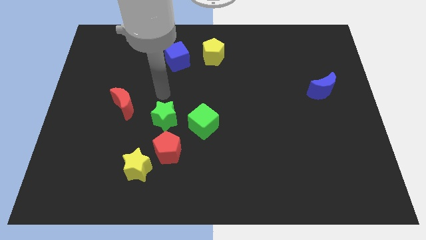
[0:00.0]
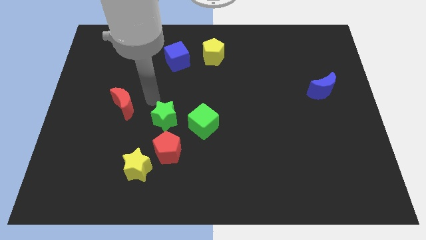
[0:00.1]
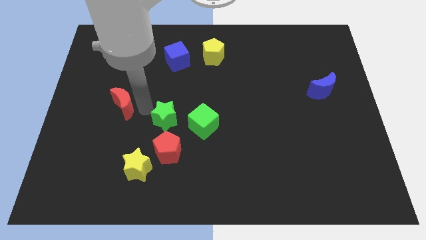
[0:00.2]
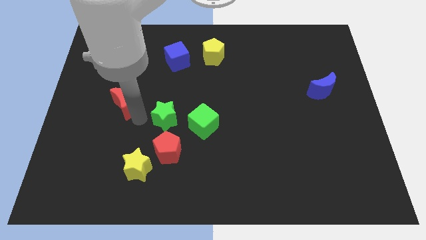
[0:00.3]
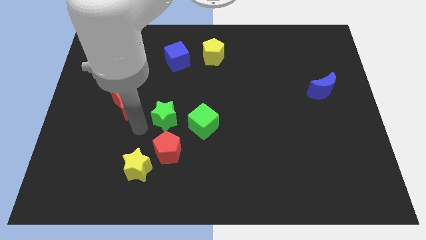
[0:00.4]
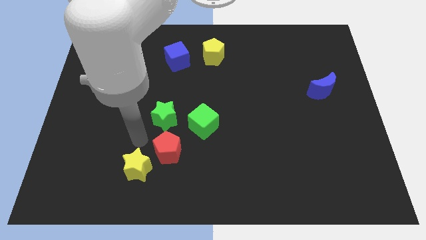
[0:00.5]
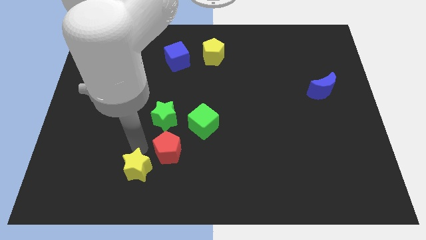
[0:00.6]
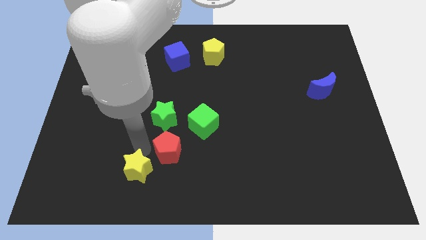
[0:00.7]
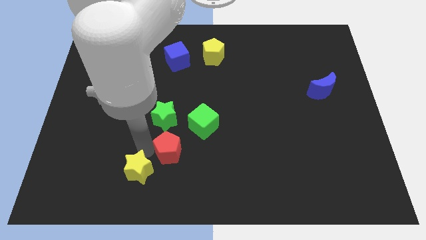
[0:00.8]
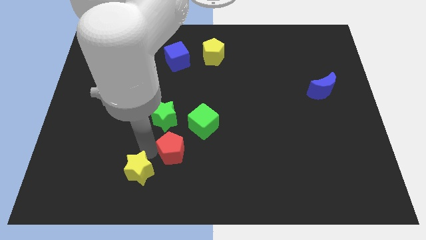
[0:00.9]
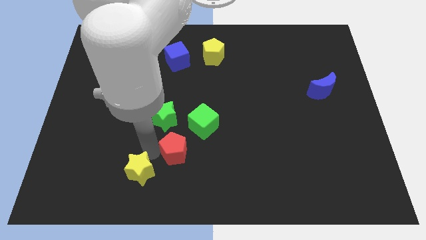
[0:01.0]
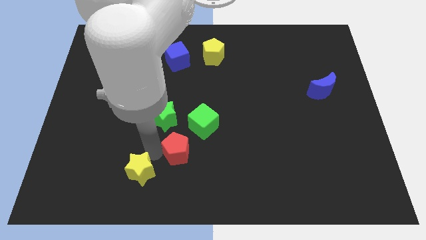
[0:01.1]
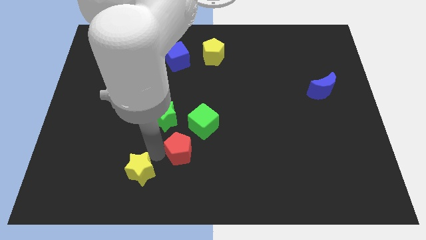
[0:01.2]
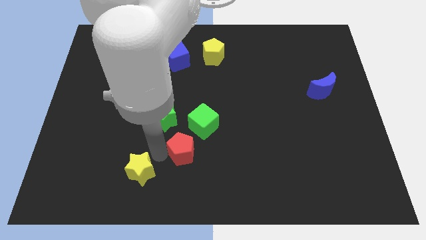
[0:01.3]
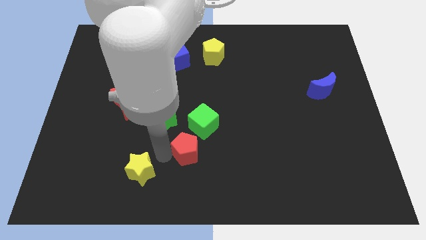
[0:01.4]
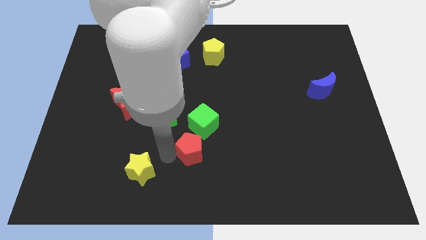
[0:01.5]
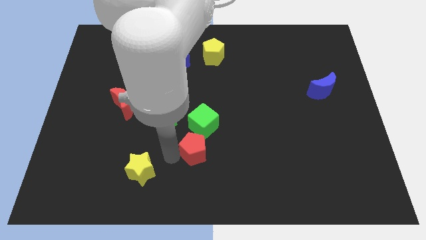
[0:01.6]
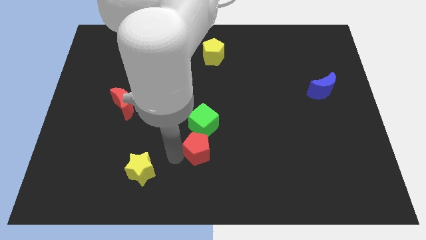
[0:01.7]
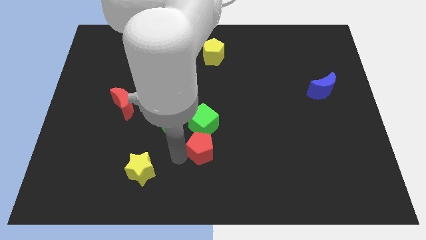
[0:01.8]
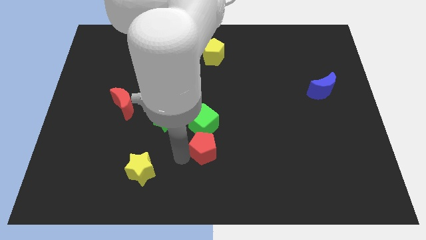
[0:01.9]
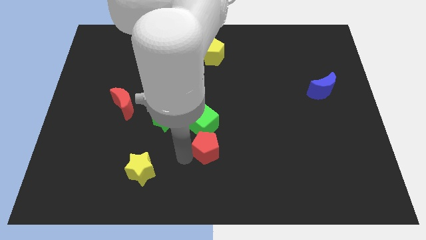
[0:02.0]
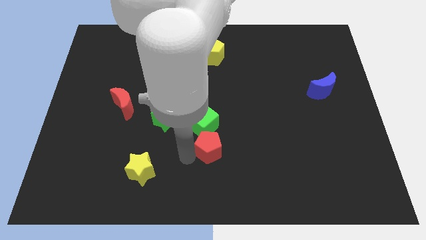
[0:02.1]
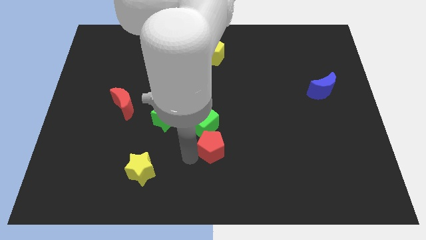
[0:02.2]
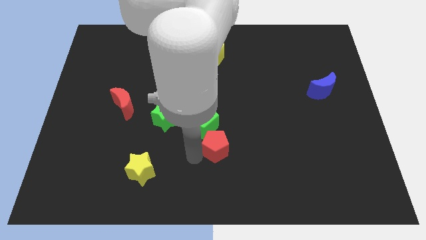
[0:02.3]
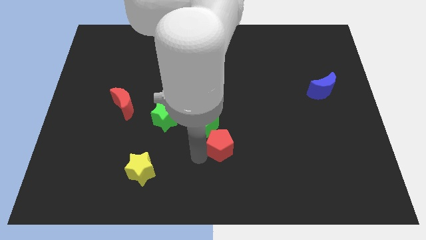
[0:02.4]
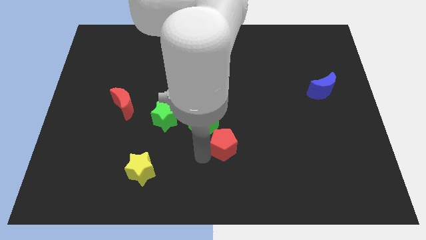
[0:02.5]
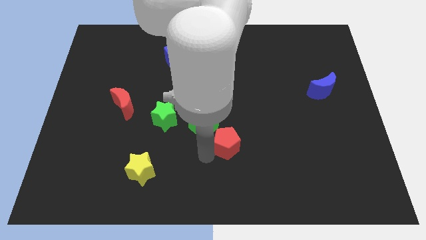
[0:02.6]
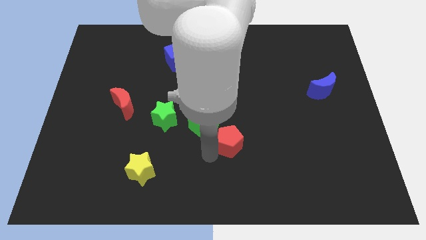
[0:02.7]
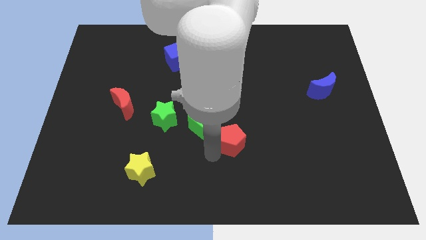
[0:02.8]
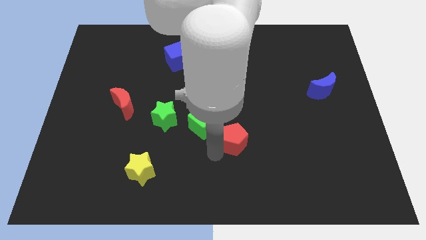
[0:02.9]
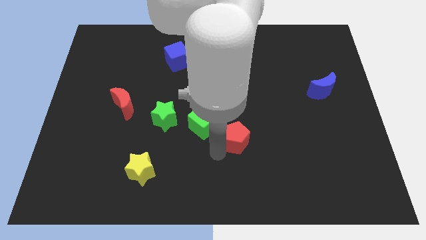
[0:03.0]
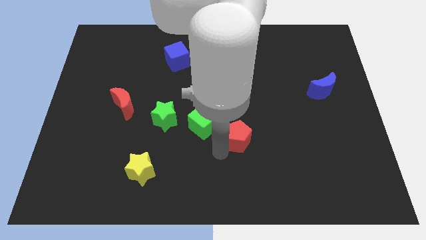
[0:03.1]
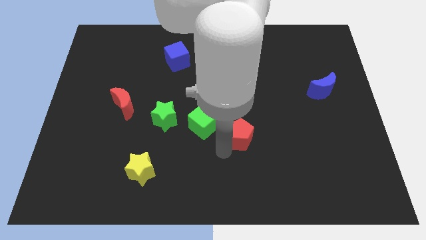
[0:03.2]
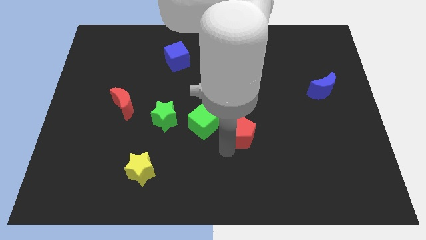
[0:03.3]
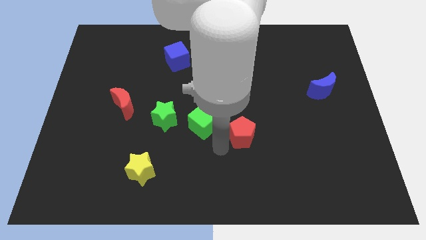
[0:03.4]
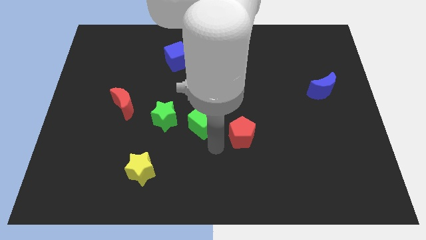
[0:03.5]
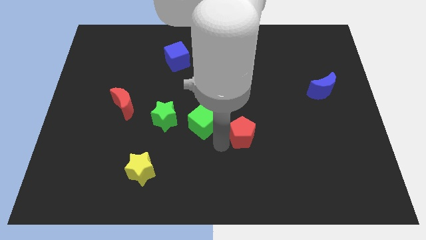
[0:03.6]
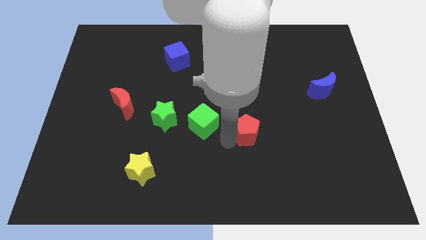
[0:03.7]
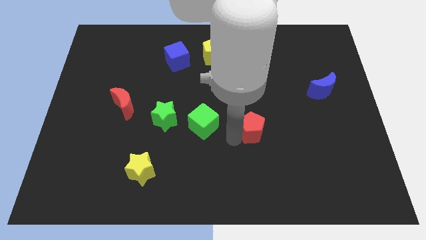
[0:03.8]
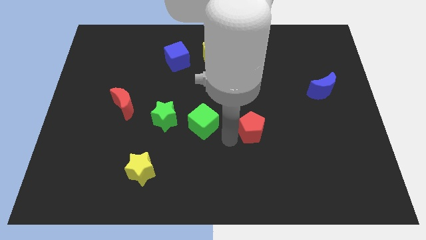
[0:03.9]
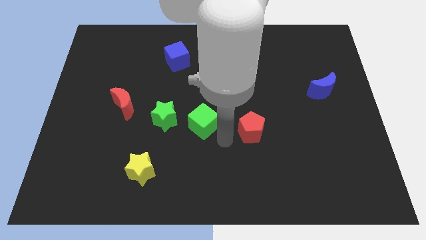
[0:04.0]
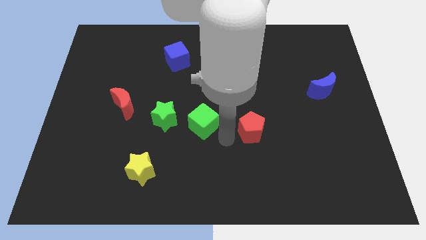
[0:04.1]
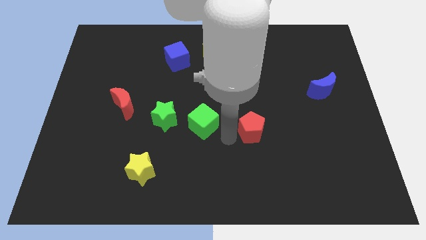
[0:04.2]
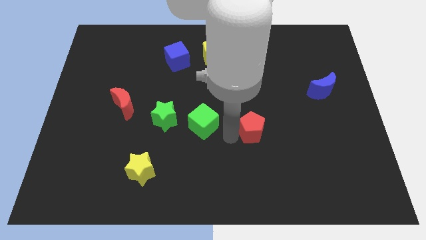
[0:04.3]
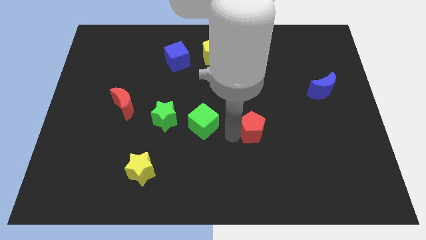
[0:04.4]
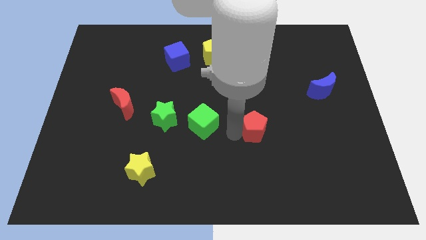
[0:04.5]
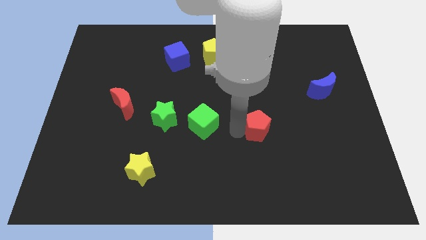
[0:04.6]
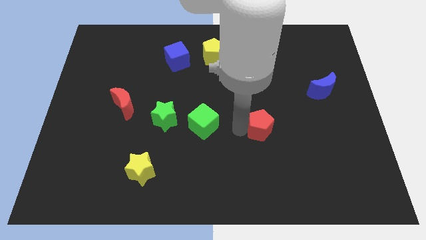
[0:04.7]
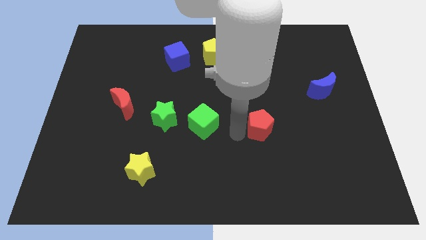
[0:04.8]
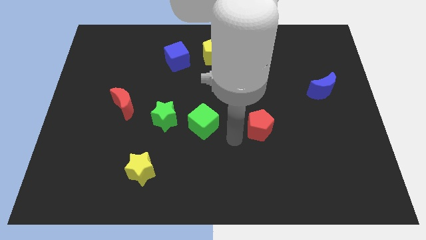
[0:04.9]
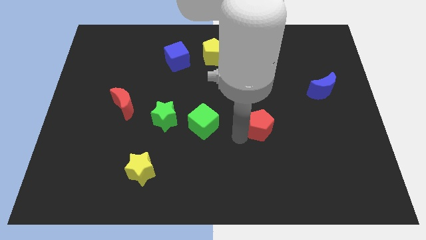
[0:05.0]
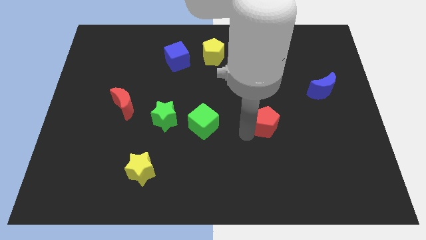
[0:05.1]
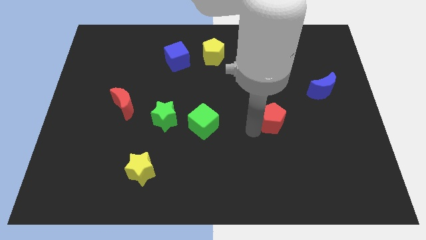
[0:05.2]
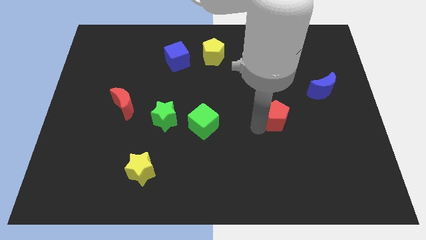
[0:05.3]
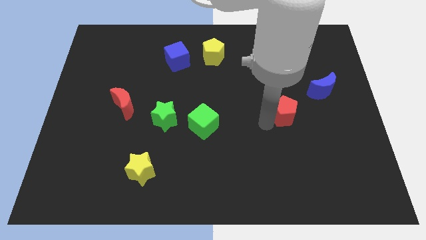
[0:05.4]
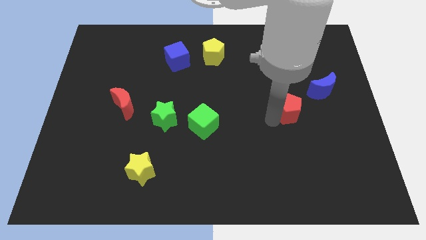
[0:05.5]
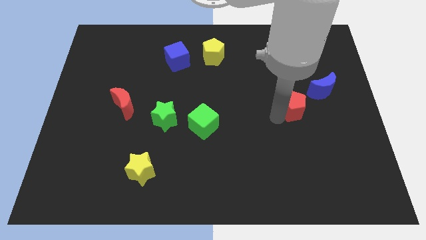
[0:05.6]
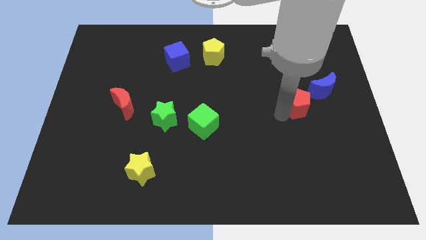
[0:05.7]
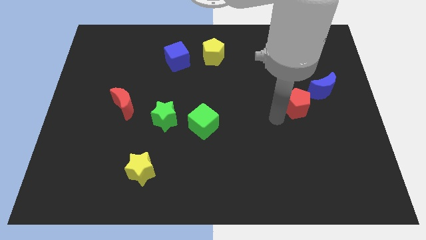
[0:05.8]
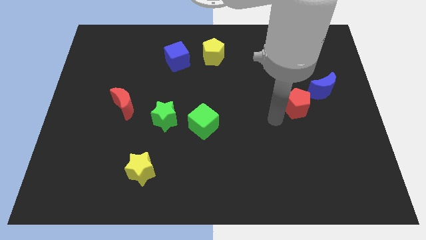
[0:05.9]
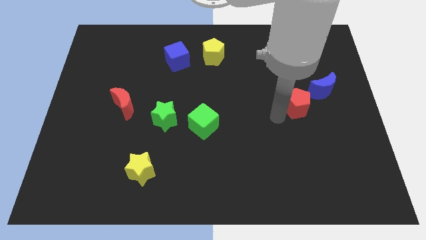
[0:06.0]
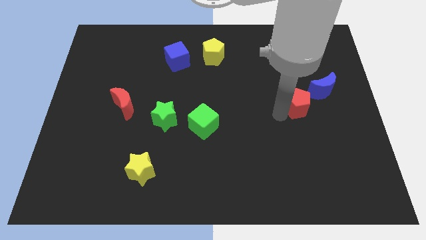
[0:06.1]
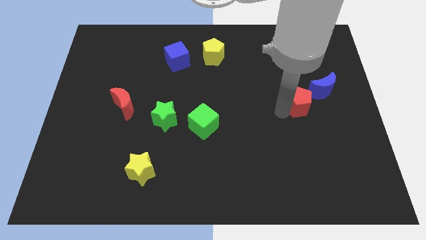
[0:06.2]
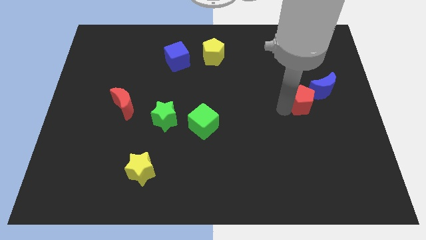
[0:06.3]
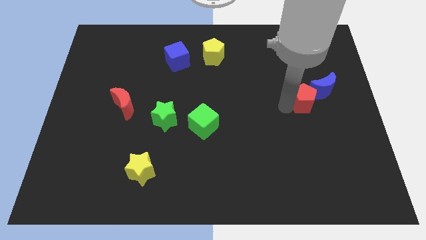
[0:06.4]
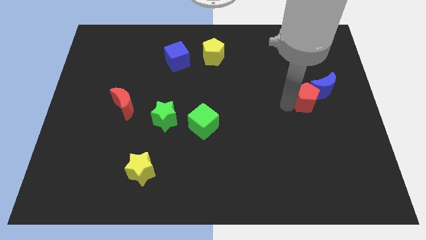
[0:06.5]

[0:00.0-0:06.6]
slide the red pentagon close to the blue moon
